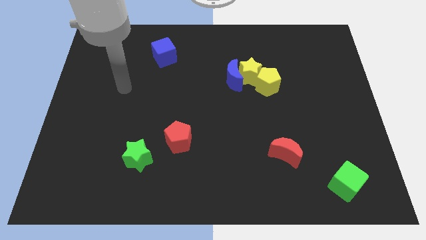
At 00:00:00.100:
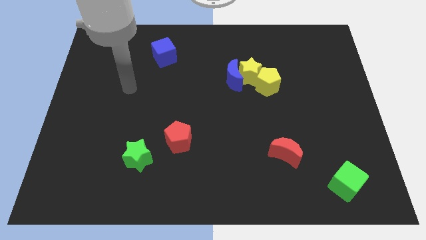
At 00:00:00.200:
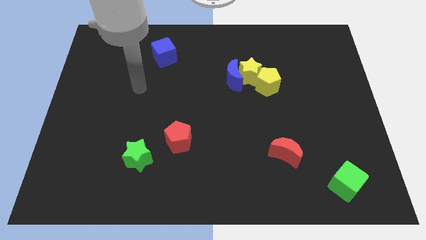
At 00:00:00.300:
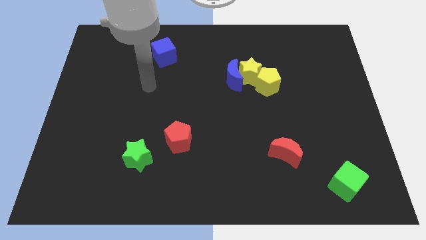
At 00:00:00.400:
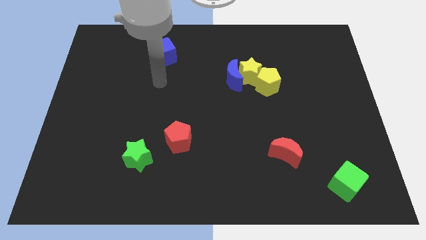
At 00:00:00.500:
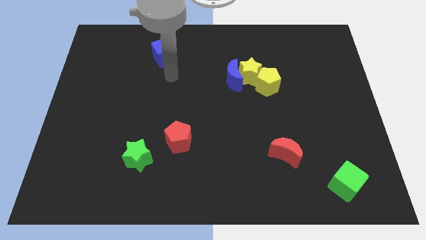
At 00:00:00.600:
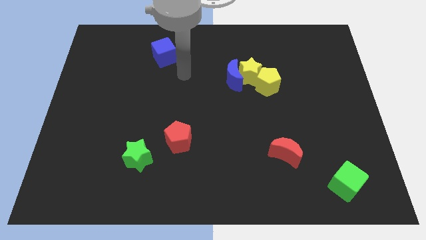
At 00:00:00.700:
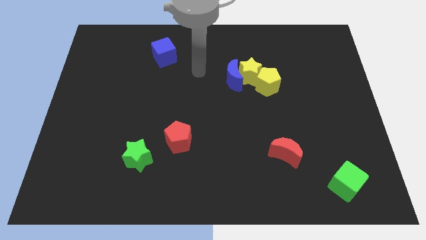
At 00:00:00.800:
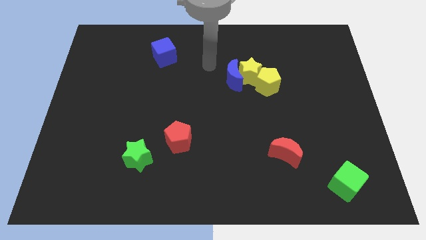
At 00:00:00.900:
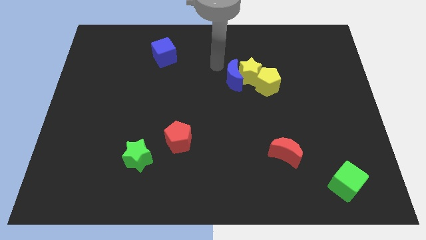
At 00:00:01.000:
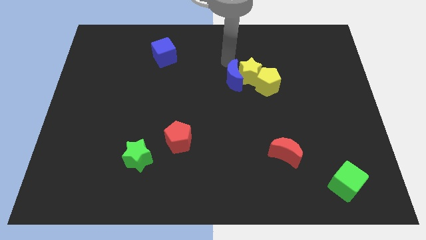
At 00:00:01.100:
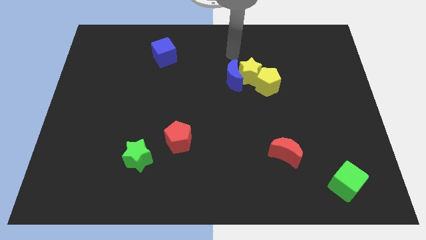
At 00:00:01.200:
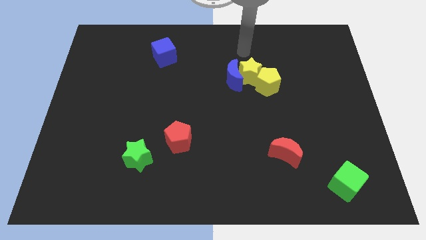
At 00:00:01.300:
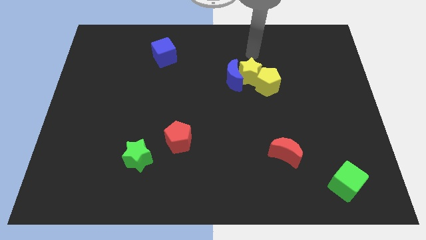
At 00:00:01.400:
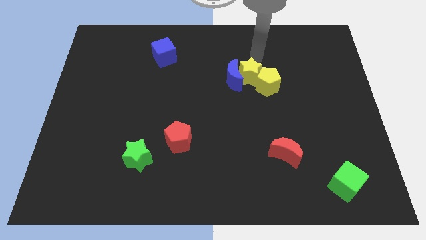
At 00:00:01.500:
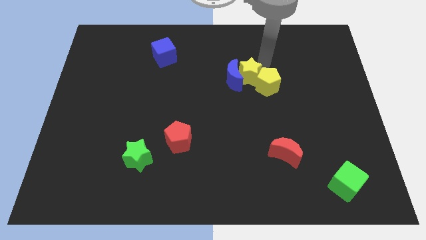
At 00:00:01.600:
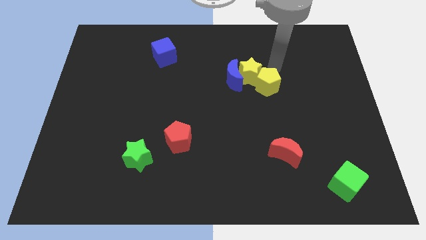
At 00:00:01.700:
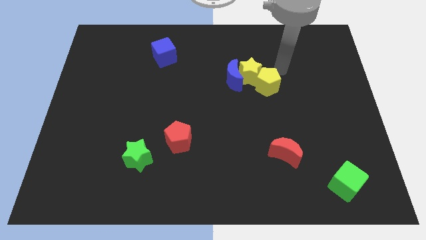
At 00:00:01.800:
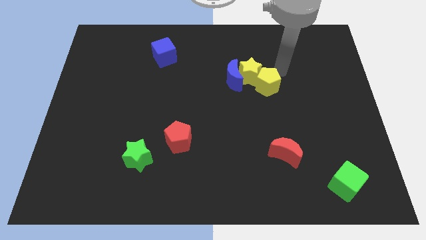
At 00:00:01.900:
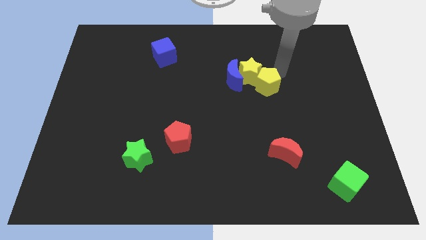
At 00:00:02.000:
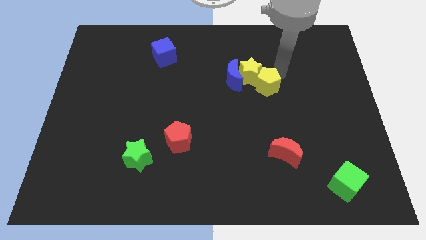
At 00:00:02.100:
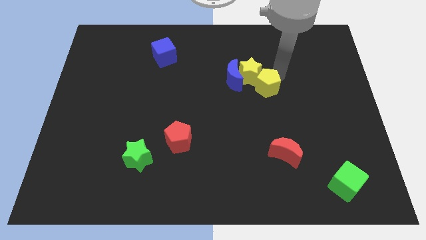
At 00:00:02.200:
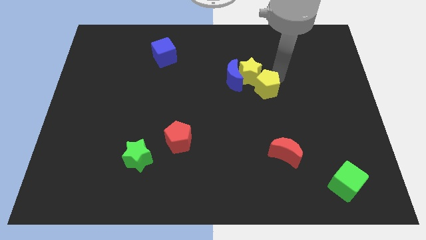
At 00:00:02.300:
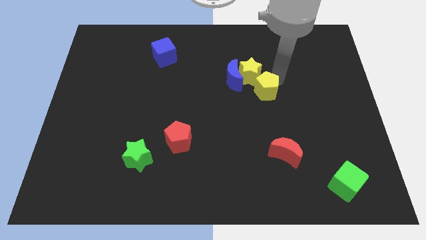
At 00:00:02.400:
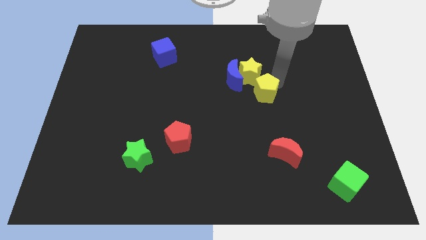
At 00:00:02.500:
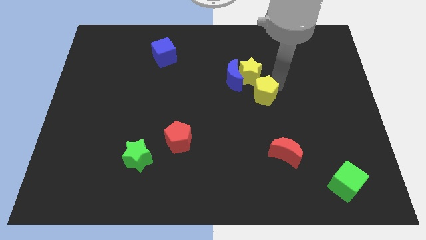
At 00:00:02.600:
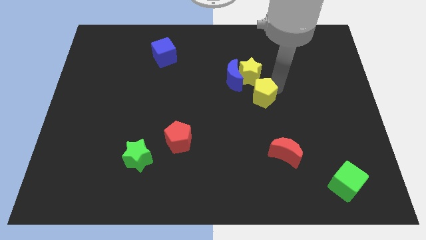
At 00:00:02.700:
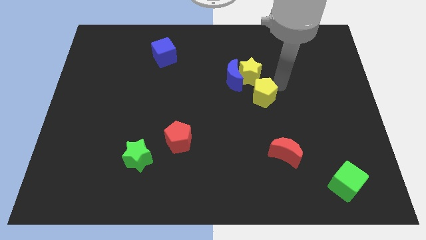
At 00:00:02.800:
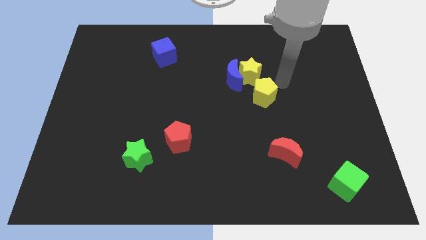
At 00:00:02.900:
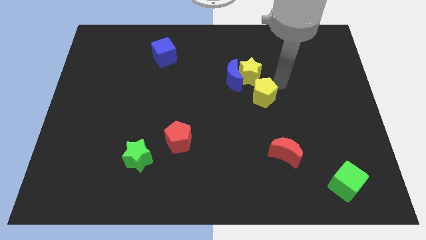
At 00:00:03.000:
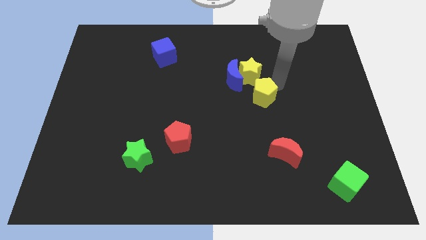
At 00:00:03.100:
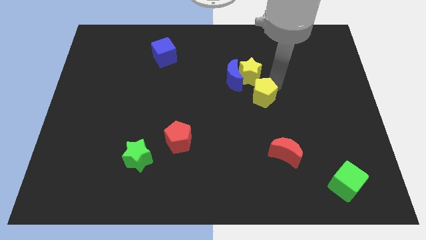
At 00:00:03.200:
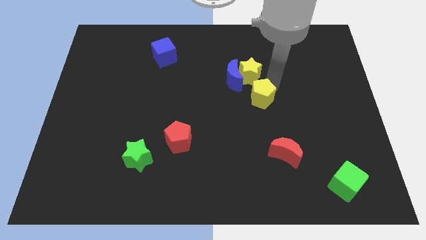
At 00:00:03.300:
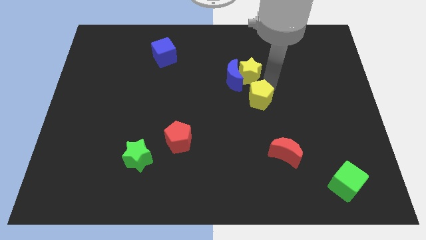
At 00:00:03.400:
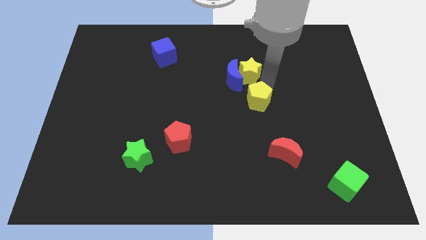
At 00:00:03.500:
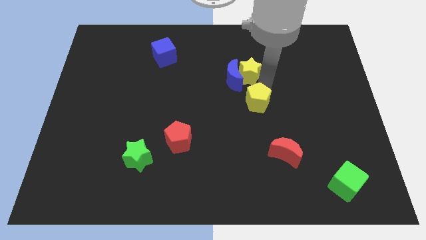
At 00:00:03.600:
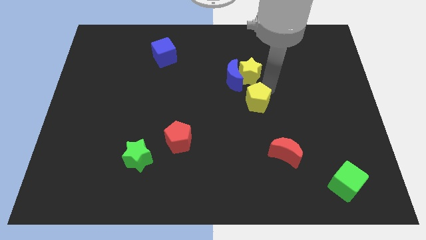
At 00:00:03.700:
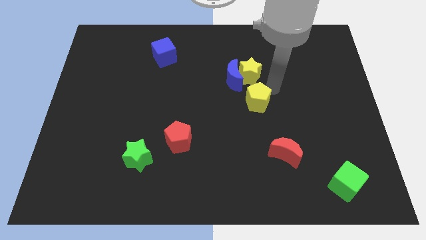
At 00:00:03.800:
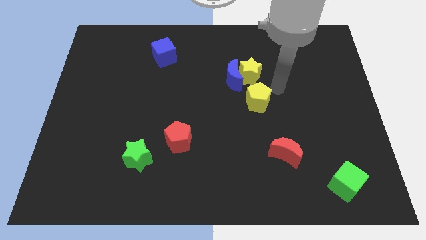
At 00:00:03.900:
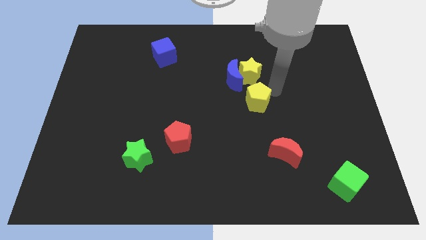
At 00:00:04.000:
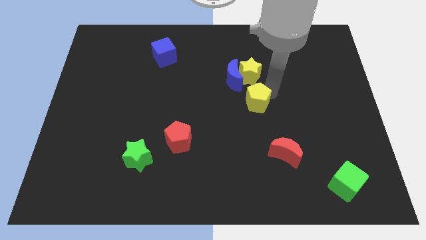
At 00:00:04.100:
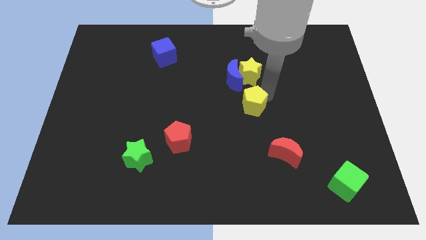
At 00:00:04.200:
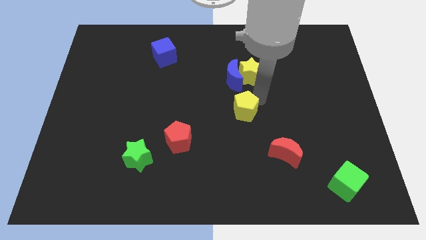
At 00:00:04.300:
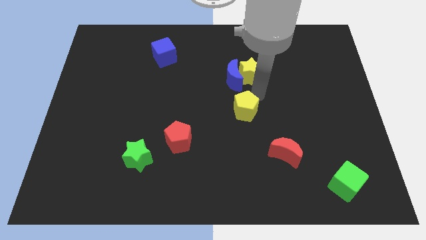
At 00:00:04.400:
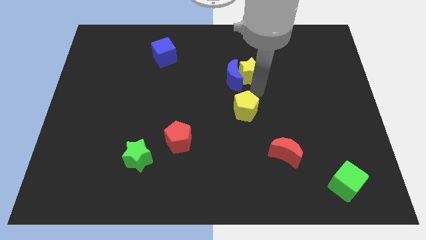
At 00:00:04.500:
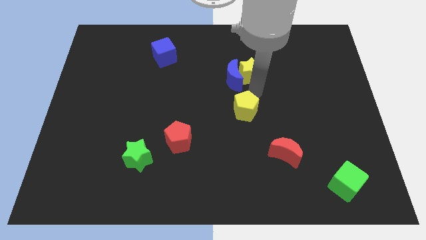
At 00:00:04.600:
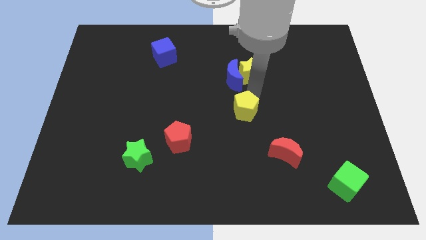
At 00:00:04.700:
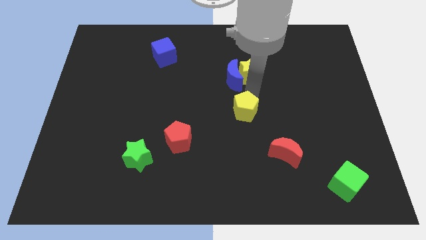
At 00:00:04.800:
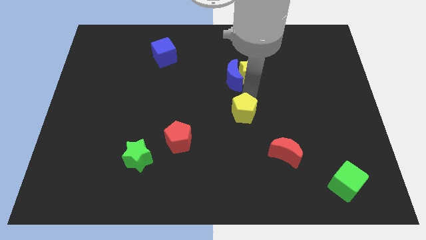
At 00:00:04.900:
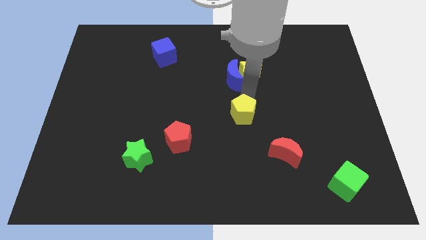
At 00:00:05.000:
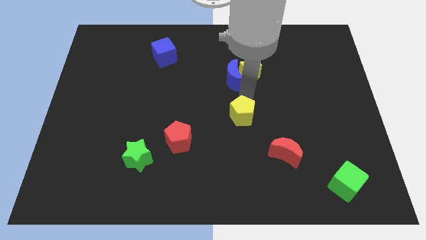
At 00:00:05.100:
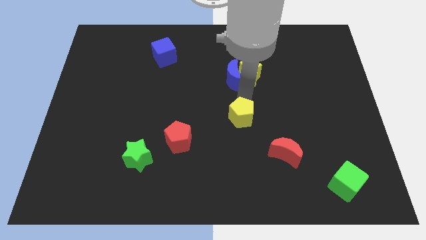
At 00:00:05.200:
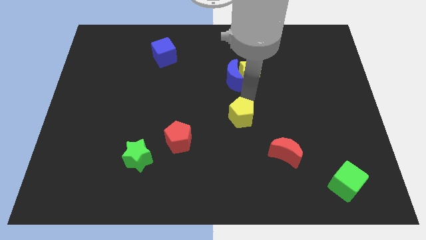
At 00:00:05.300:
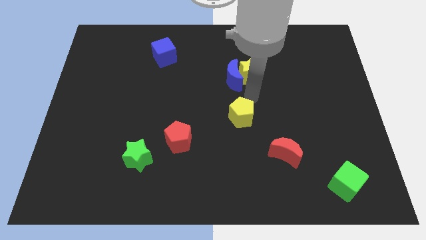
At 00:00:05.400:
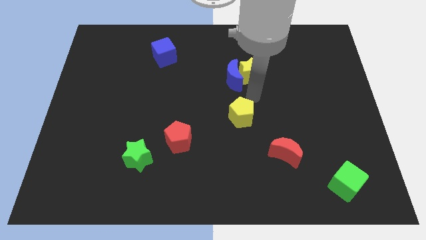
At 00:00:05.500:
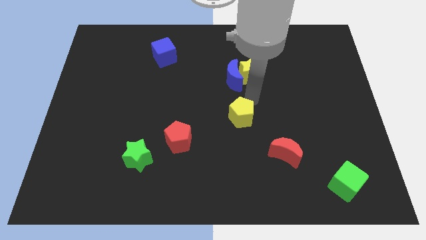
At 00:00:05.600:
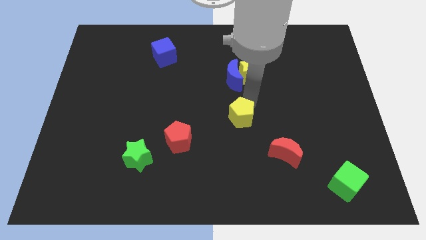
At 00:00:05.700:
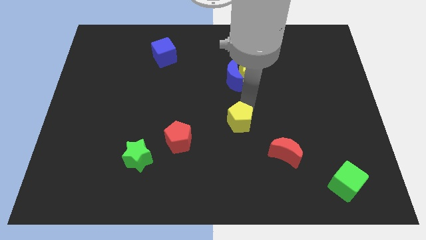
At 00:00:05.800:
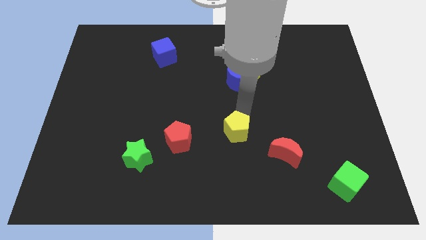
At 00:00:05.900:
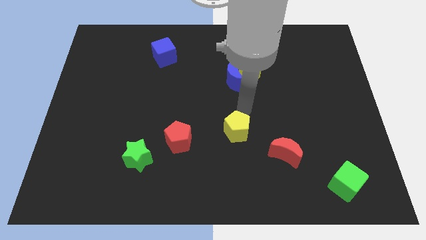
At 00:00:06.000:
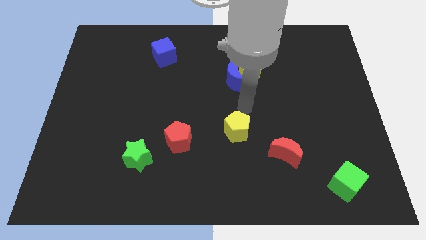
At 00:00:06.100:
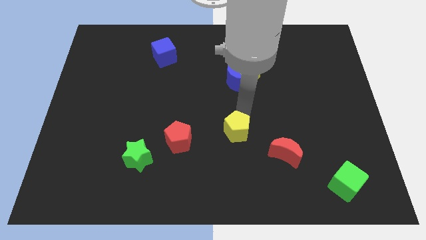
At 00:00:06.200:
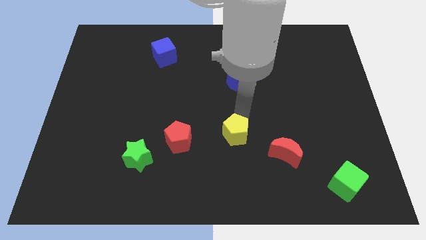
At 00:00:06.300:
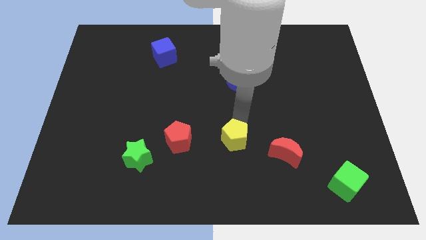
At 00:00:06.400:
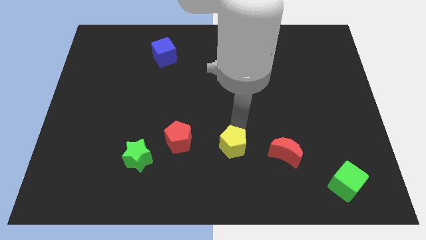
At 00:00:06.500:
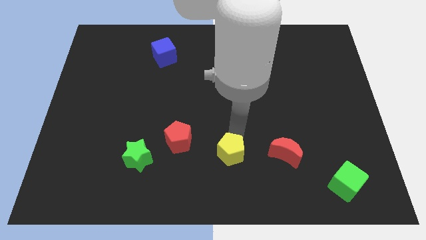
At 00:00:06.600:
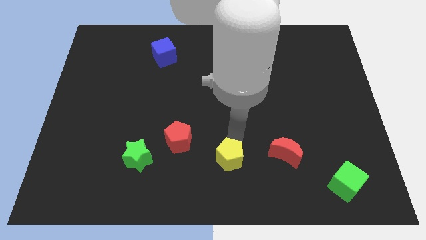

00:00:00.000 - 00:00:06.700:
push the yellow pentagon to the bottom
